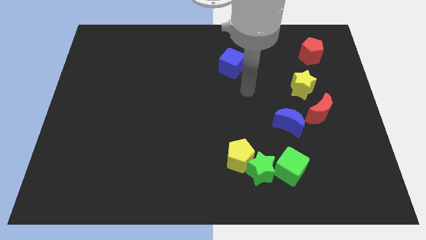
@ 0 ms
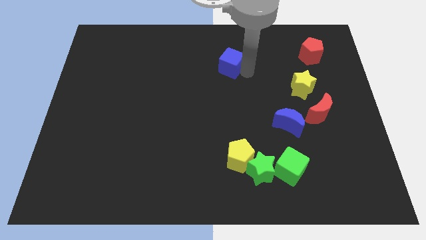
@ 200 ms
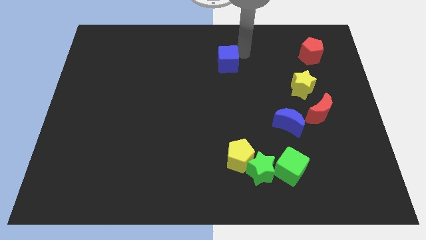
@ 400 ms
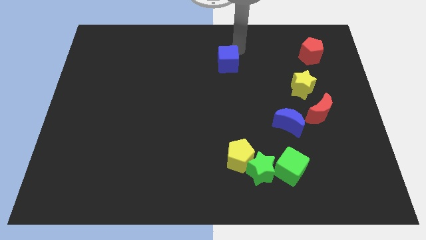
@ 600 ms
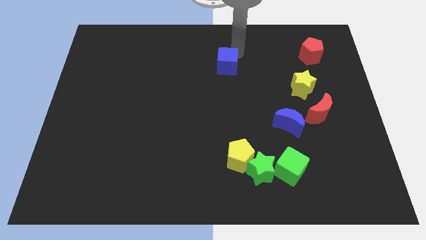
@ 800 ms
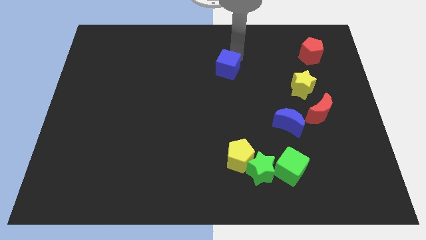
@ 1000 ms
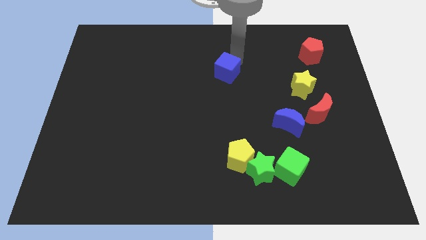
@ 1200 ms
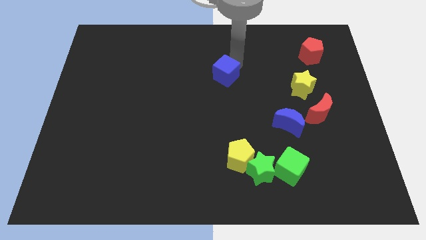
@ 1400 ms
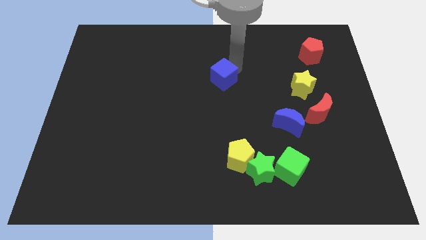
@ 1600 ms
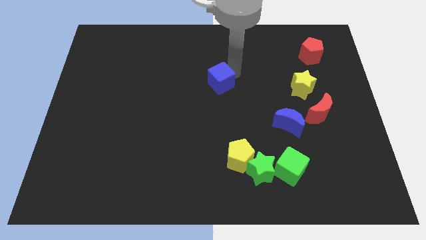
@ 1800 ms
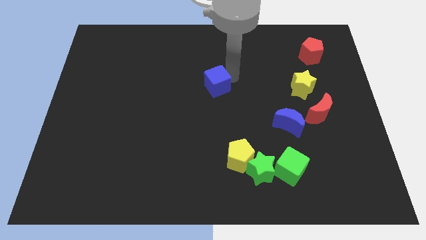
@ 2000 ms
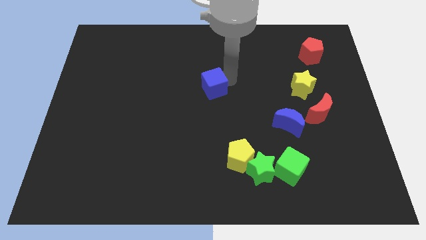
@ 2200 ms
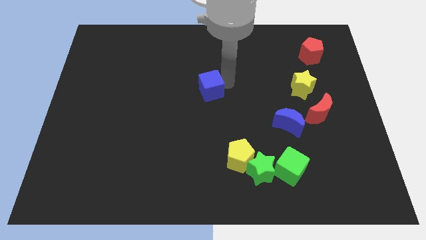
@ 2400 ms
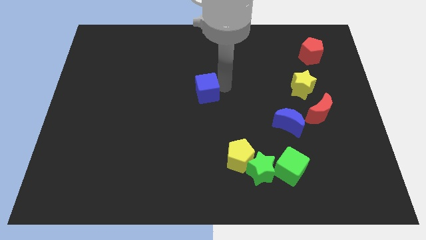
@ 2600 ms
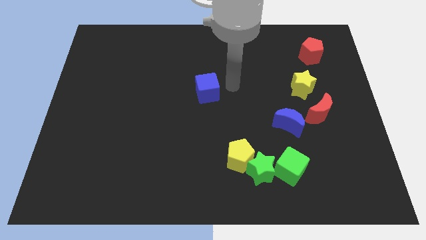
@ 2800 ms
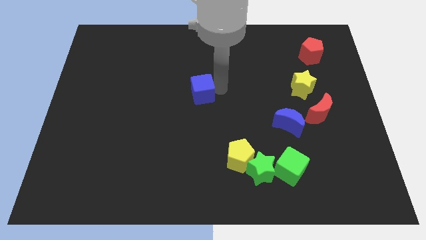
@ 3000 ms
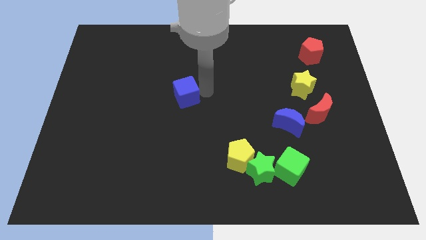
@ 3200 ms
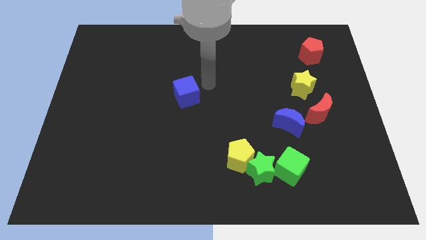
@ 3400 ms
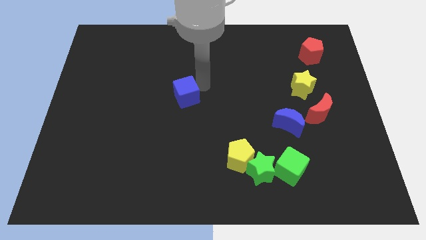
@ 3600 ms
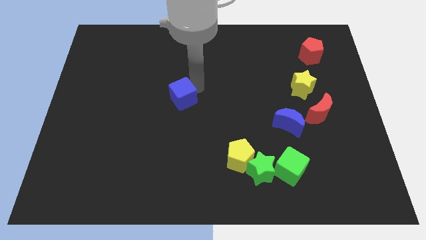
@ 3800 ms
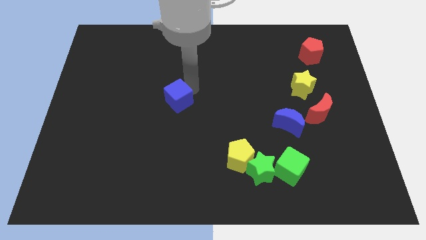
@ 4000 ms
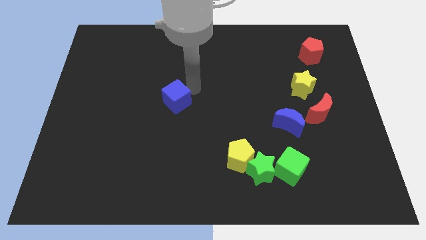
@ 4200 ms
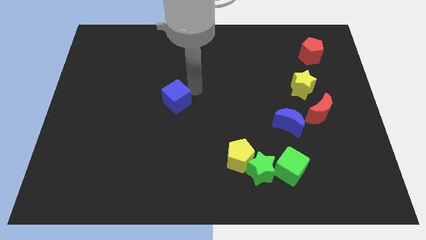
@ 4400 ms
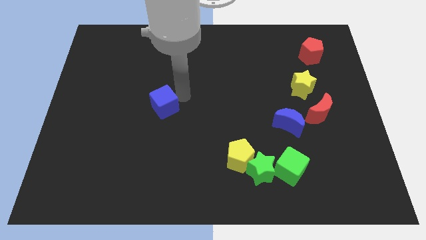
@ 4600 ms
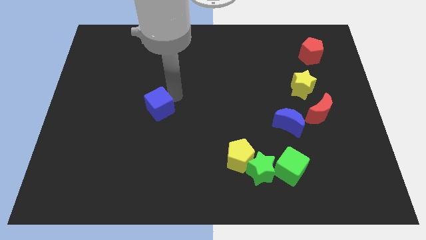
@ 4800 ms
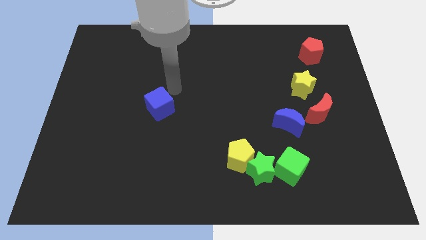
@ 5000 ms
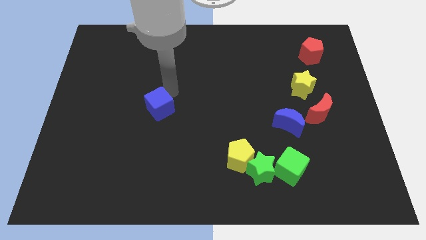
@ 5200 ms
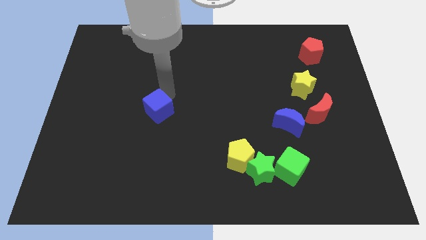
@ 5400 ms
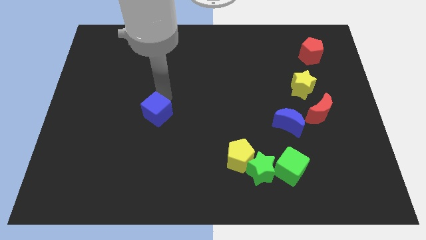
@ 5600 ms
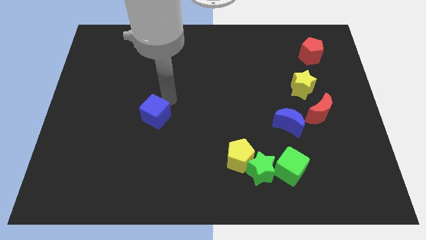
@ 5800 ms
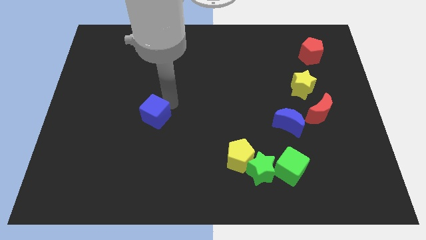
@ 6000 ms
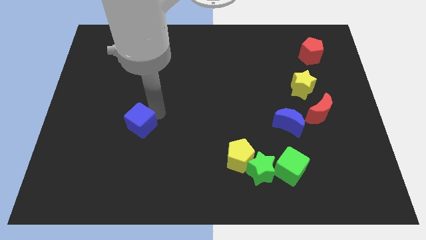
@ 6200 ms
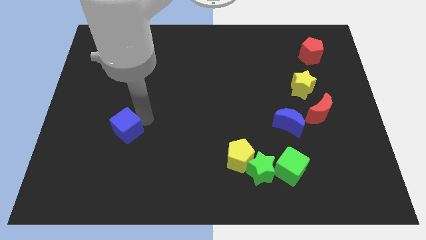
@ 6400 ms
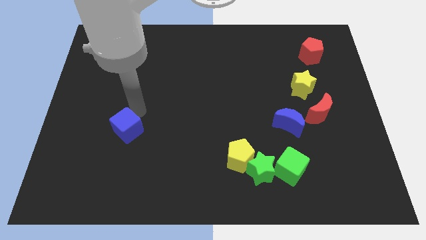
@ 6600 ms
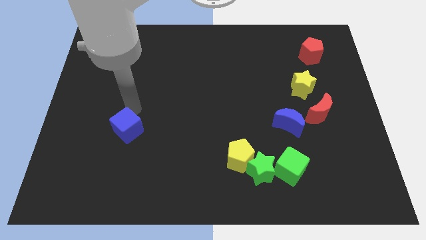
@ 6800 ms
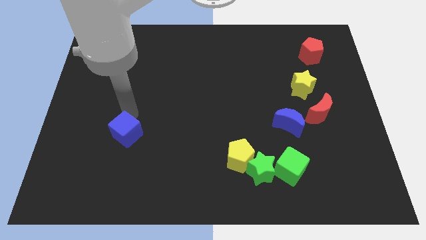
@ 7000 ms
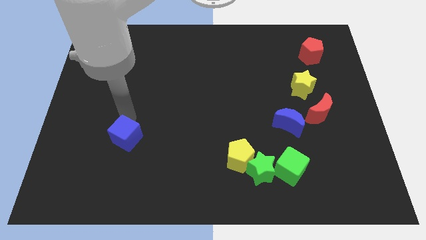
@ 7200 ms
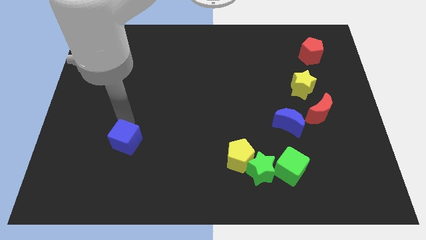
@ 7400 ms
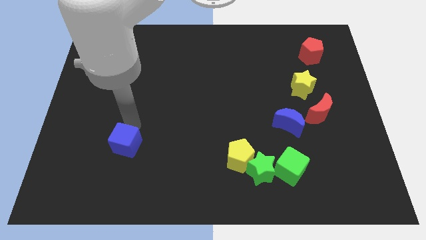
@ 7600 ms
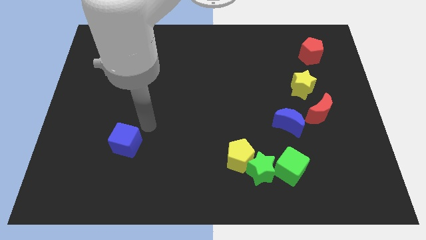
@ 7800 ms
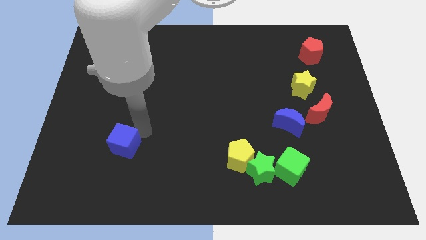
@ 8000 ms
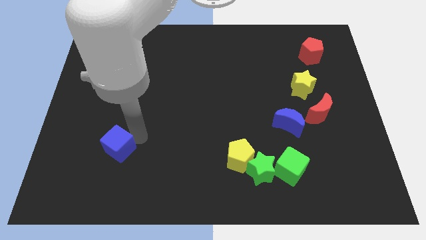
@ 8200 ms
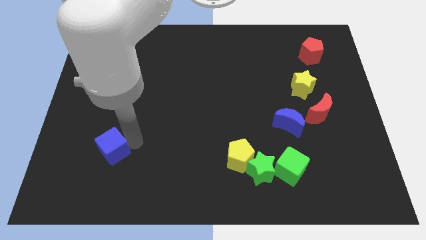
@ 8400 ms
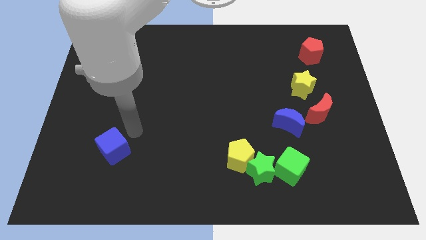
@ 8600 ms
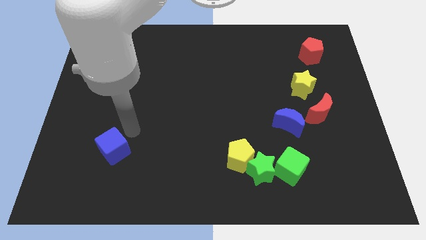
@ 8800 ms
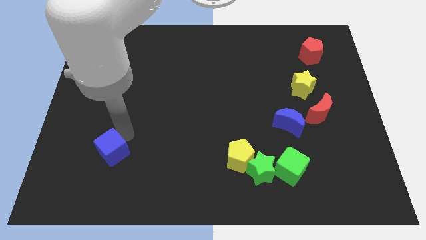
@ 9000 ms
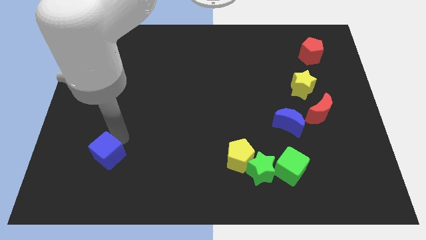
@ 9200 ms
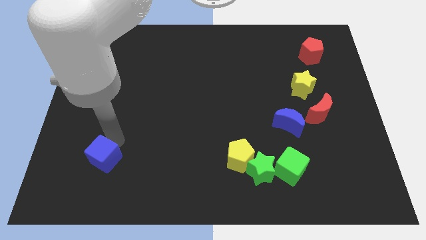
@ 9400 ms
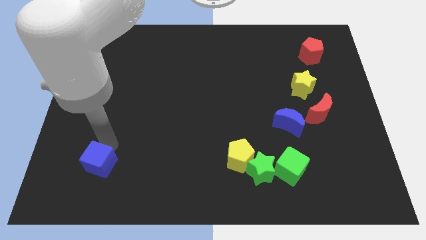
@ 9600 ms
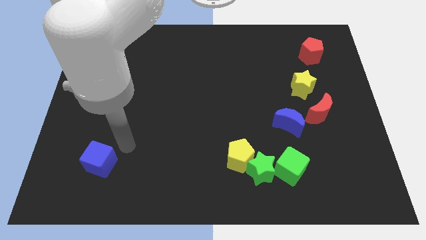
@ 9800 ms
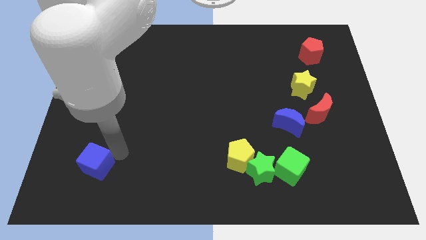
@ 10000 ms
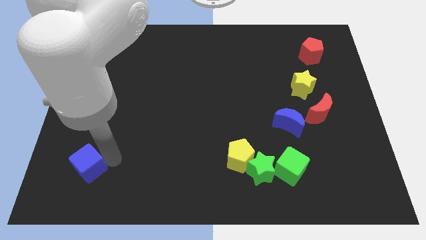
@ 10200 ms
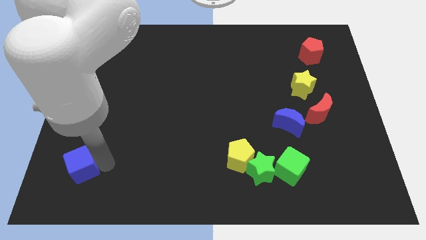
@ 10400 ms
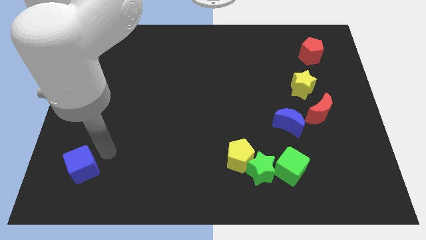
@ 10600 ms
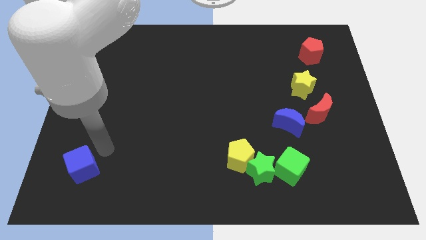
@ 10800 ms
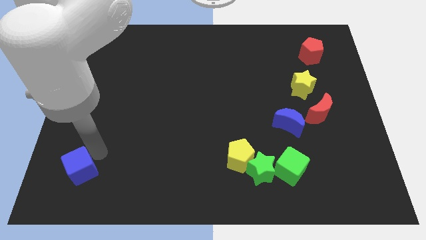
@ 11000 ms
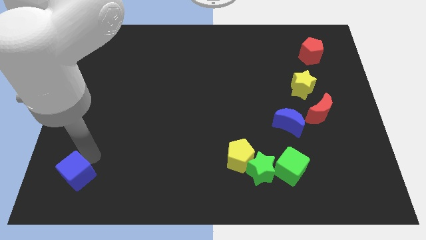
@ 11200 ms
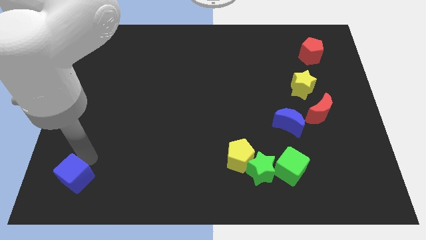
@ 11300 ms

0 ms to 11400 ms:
push the blue cube to the lower left corner

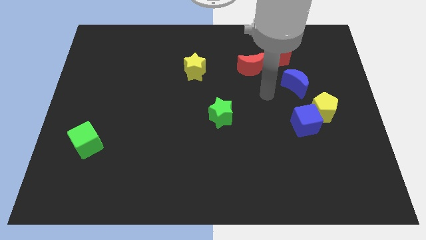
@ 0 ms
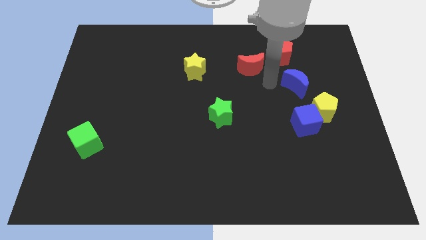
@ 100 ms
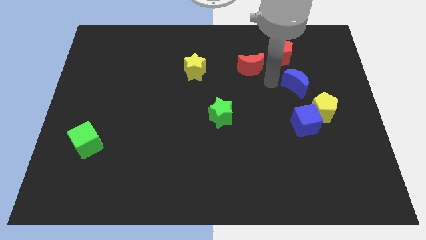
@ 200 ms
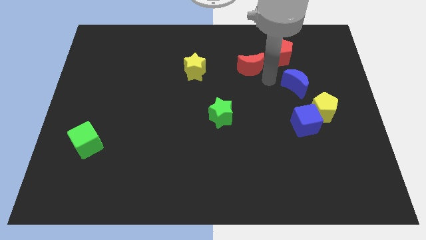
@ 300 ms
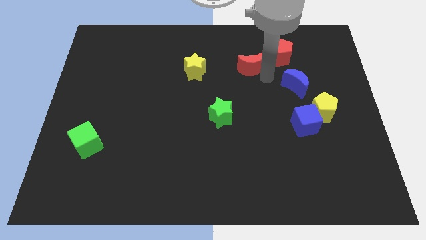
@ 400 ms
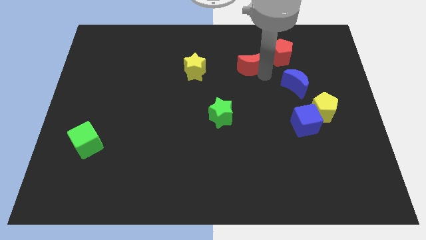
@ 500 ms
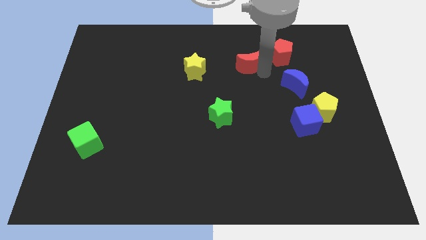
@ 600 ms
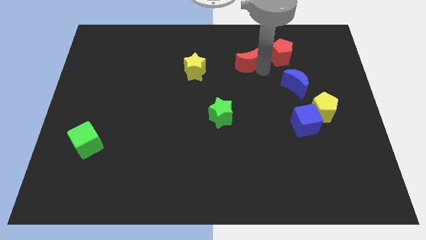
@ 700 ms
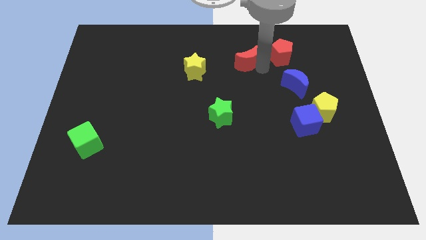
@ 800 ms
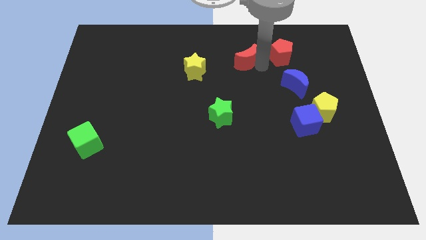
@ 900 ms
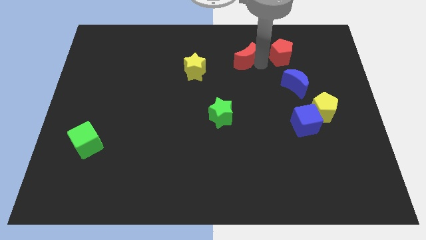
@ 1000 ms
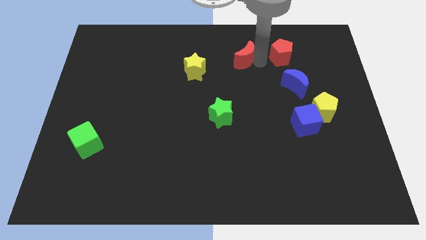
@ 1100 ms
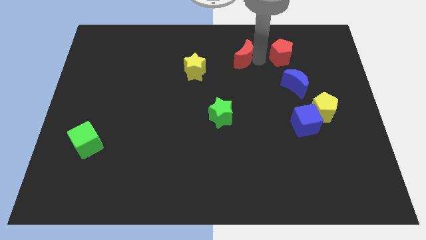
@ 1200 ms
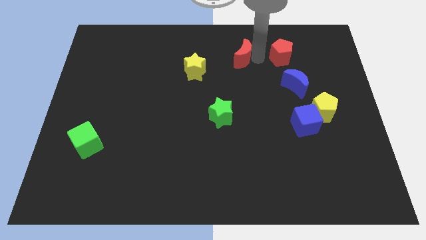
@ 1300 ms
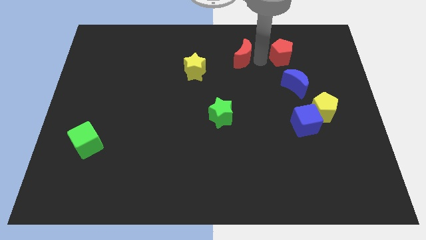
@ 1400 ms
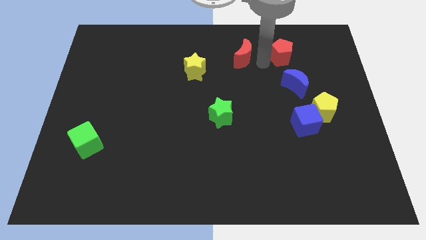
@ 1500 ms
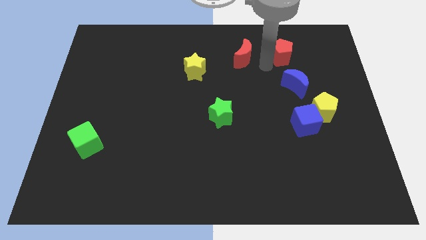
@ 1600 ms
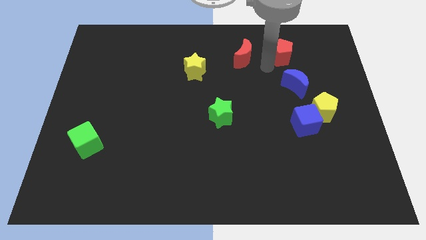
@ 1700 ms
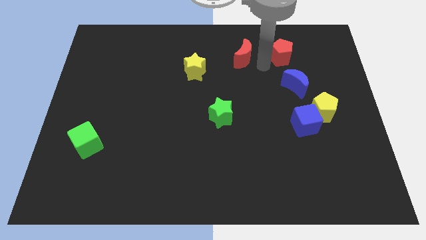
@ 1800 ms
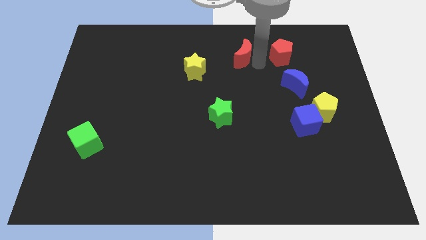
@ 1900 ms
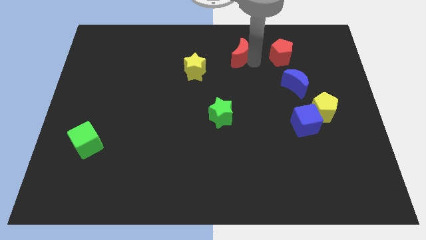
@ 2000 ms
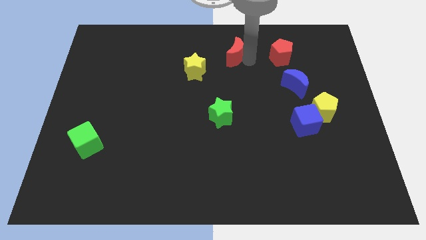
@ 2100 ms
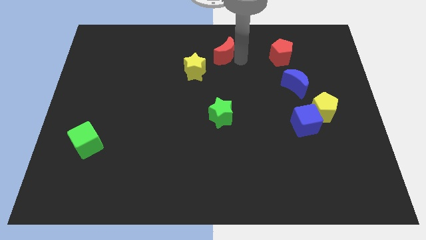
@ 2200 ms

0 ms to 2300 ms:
push the red moon to the top side
